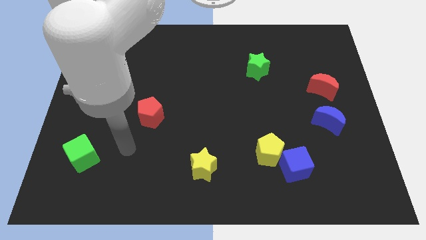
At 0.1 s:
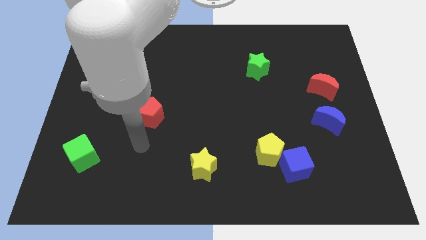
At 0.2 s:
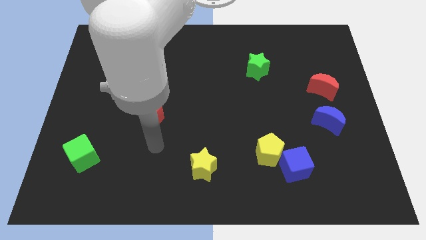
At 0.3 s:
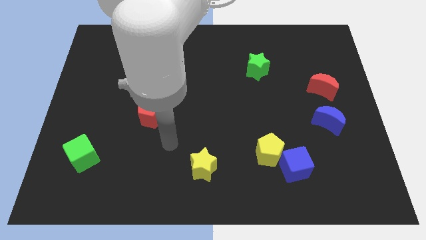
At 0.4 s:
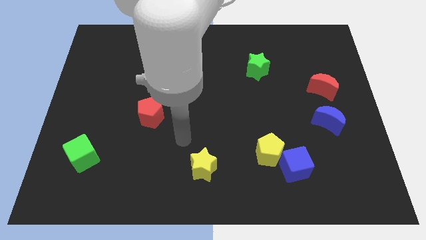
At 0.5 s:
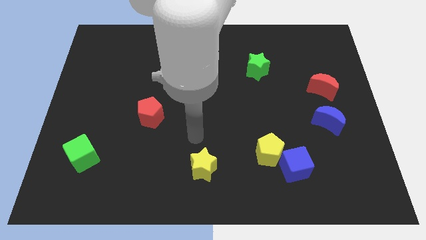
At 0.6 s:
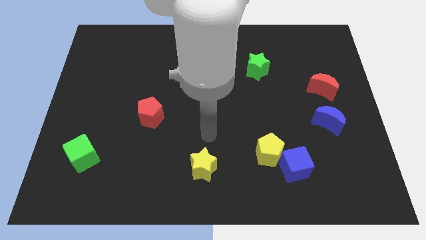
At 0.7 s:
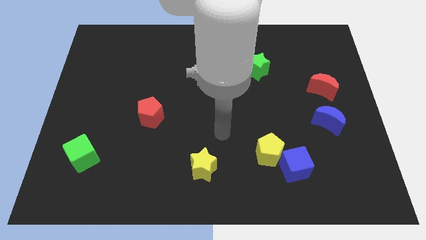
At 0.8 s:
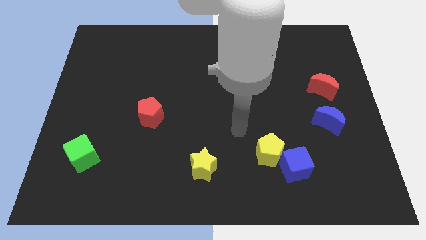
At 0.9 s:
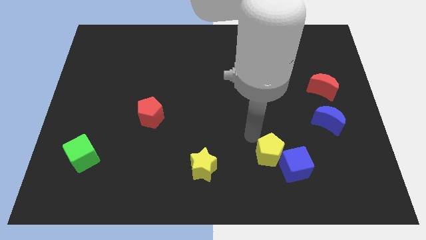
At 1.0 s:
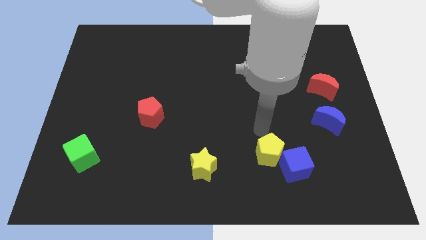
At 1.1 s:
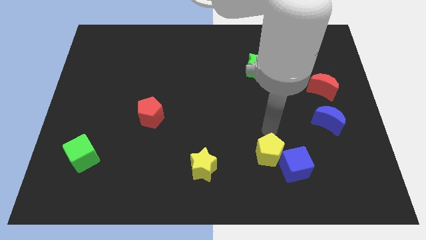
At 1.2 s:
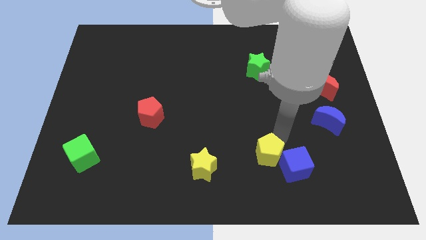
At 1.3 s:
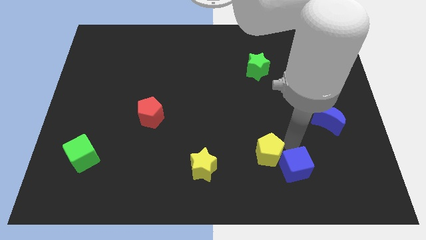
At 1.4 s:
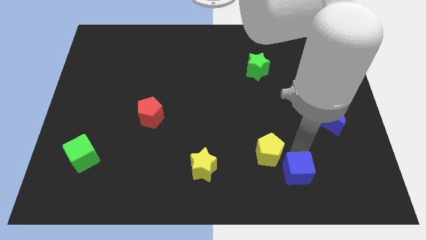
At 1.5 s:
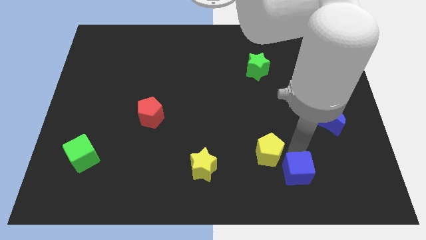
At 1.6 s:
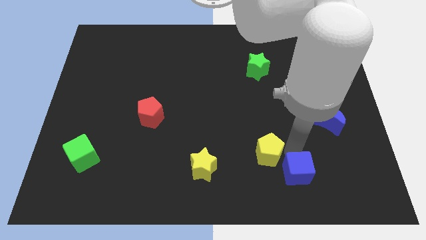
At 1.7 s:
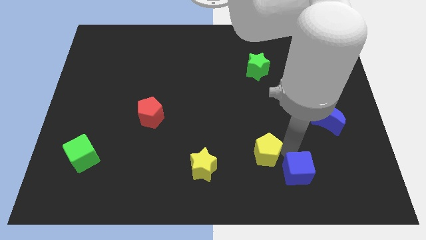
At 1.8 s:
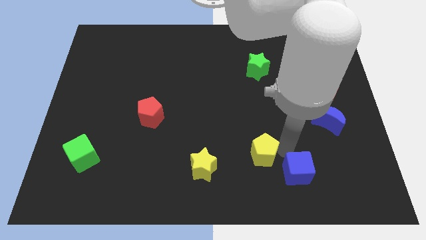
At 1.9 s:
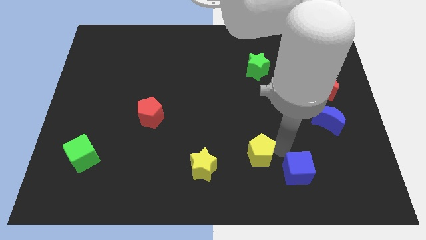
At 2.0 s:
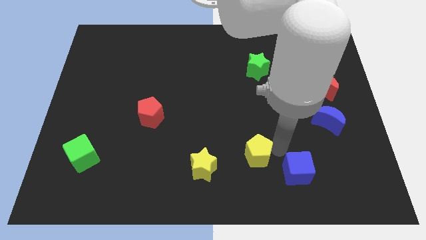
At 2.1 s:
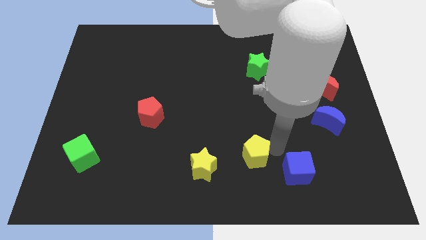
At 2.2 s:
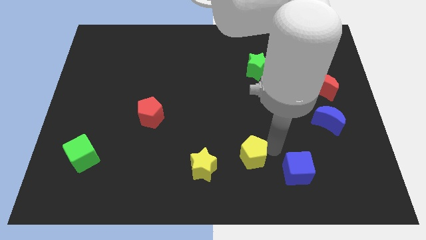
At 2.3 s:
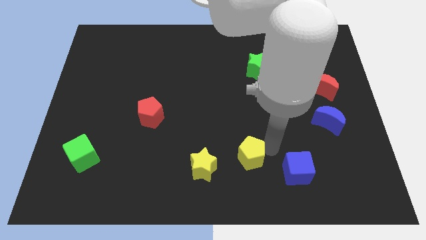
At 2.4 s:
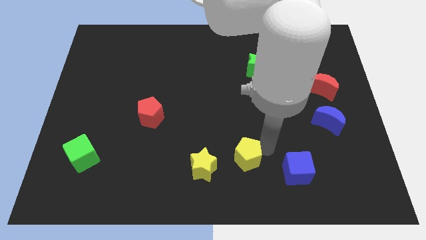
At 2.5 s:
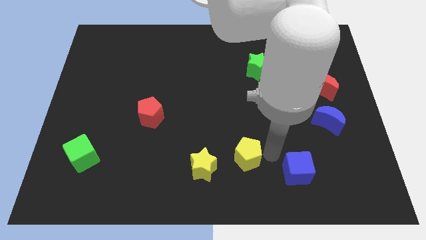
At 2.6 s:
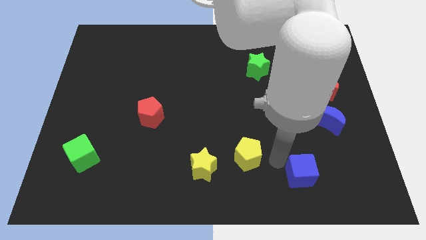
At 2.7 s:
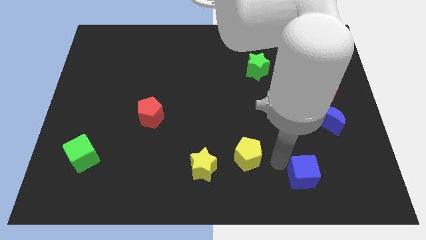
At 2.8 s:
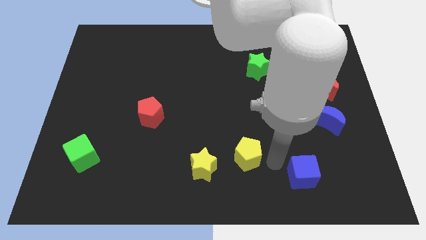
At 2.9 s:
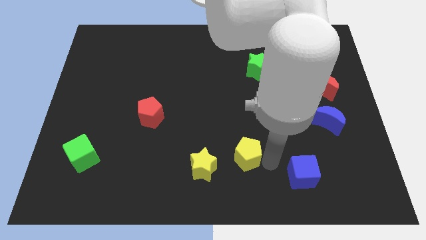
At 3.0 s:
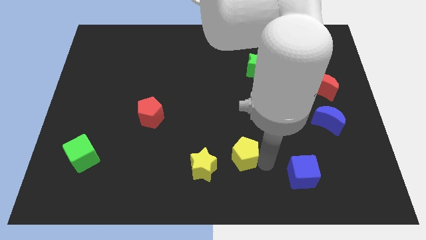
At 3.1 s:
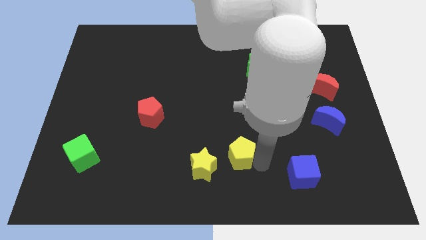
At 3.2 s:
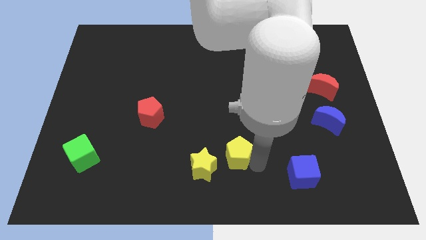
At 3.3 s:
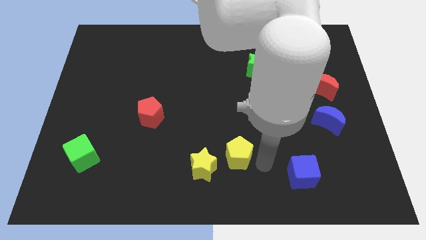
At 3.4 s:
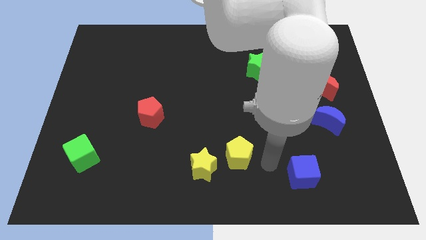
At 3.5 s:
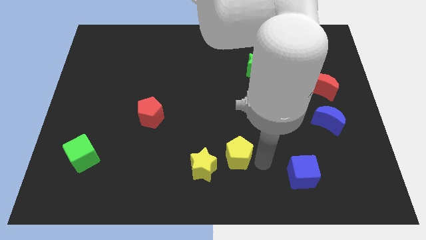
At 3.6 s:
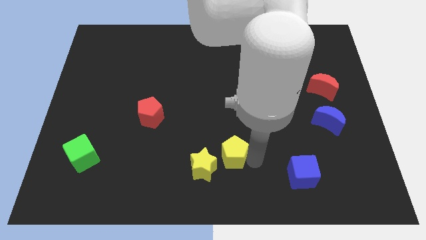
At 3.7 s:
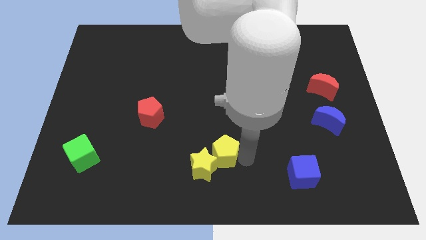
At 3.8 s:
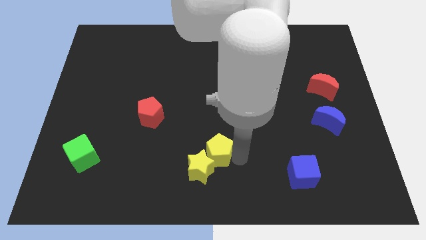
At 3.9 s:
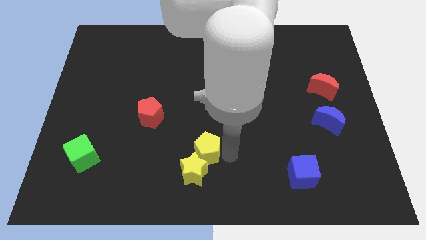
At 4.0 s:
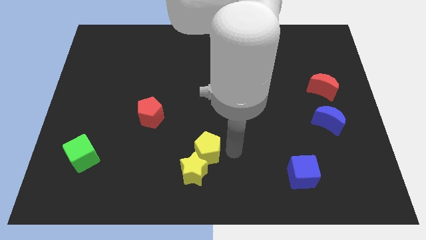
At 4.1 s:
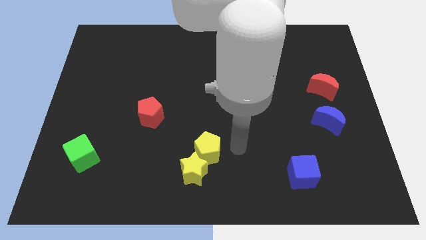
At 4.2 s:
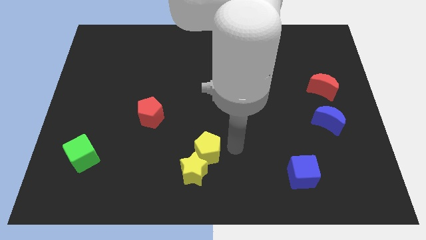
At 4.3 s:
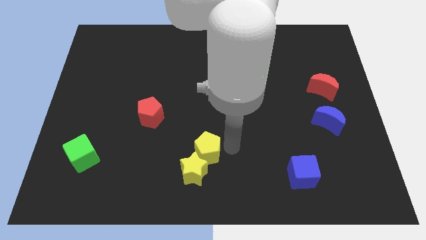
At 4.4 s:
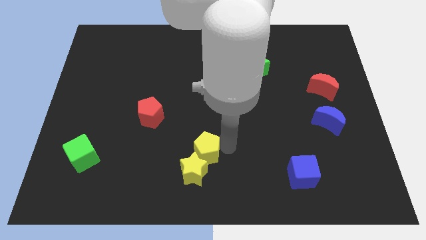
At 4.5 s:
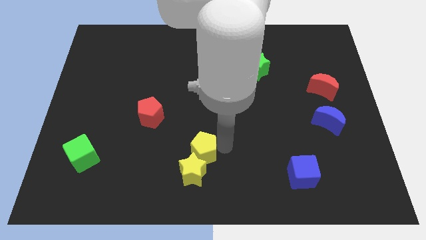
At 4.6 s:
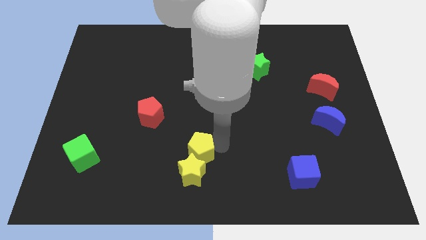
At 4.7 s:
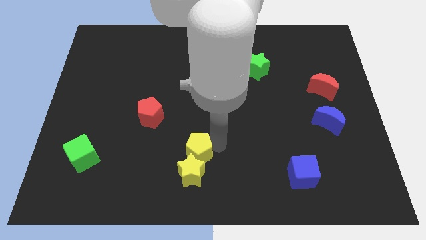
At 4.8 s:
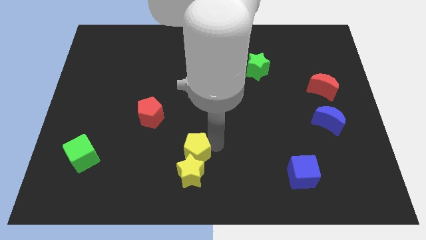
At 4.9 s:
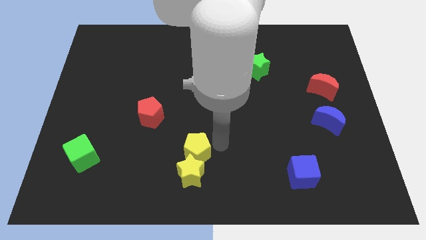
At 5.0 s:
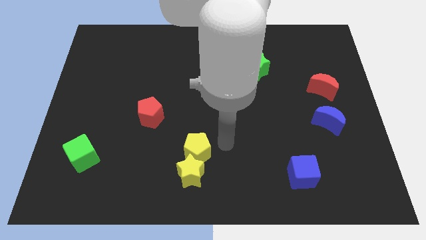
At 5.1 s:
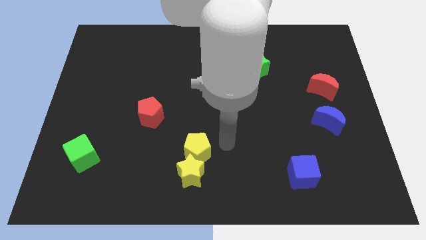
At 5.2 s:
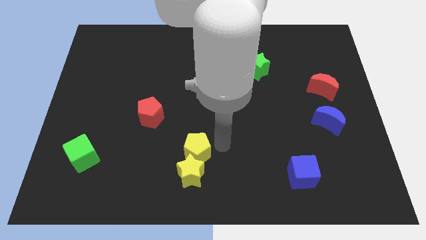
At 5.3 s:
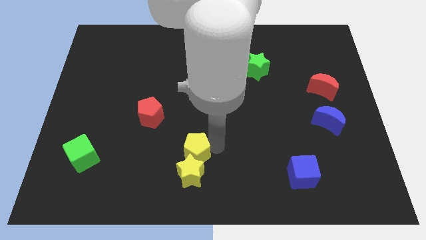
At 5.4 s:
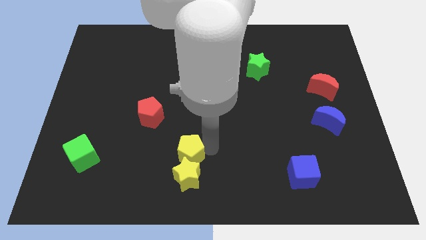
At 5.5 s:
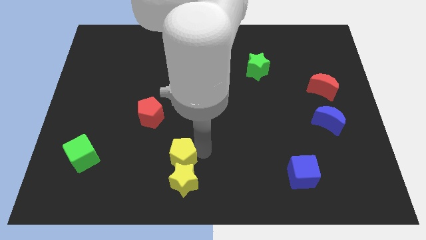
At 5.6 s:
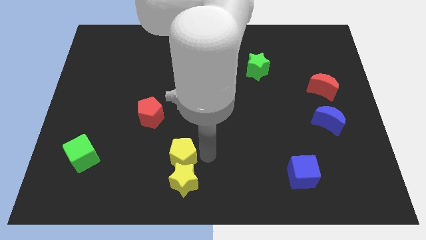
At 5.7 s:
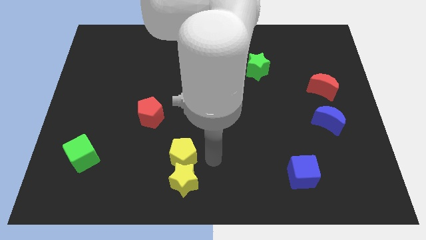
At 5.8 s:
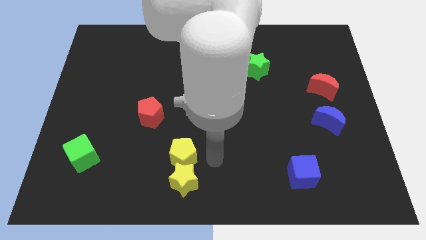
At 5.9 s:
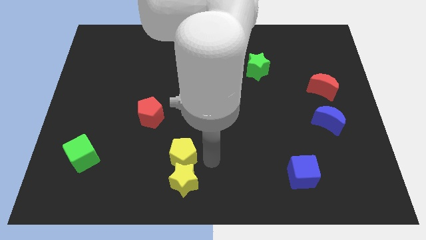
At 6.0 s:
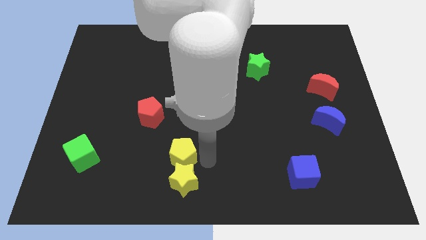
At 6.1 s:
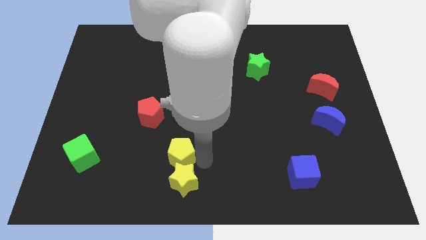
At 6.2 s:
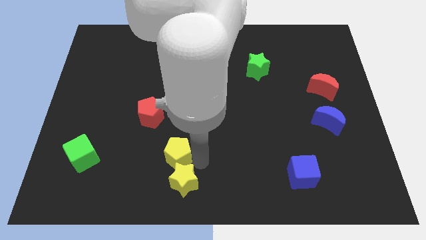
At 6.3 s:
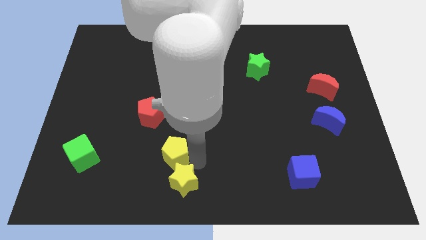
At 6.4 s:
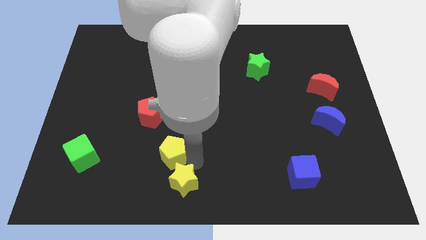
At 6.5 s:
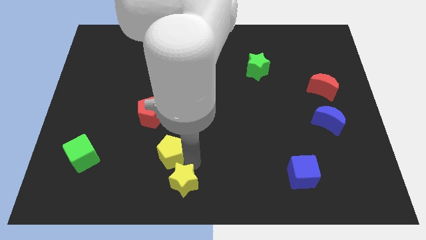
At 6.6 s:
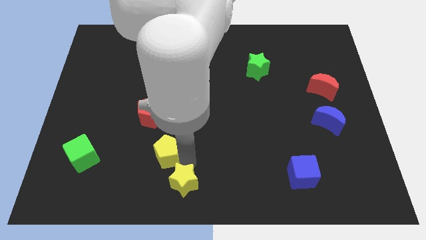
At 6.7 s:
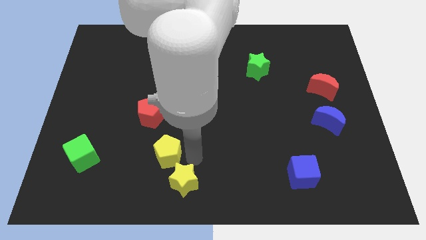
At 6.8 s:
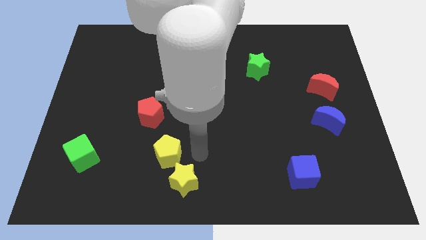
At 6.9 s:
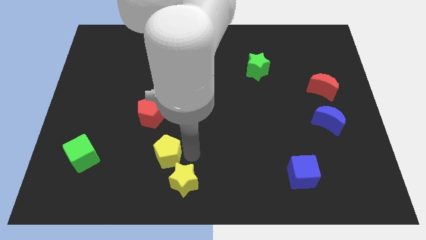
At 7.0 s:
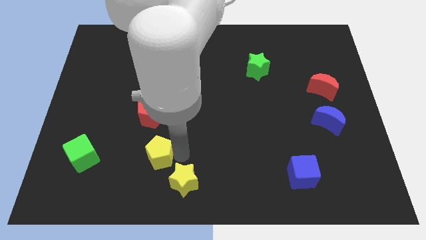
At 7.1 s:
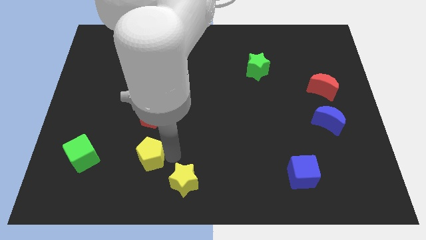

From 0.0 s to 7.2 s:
move the yellow pentagon right of the green cube

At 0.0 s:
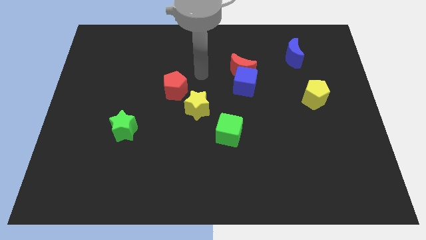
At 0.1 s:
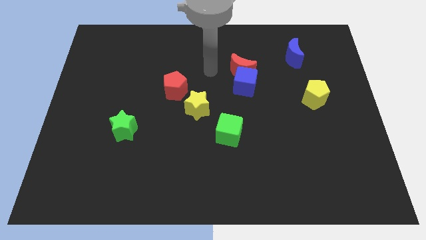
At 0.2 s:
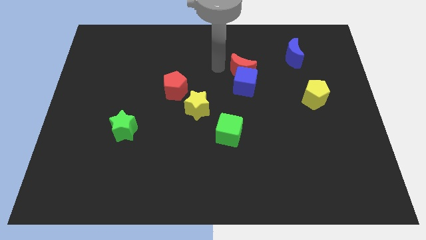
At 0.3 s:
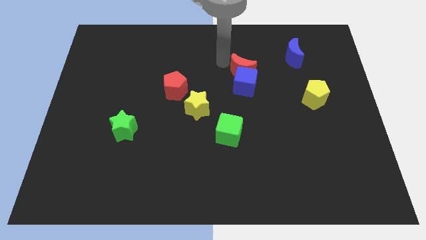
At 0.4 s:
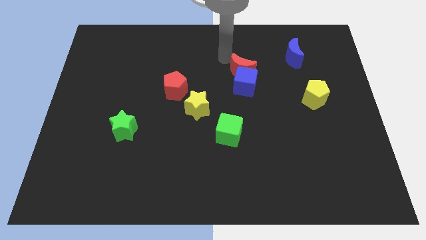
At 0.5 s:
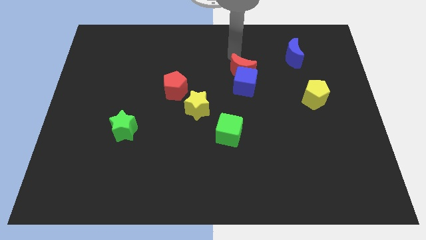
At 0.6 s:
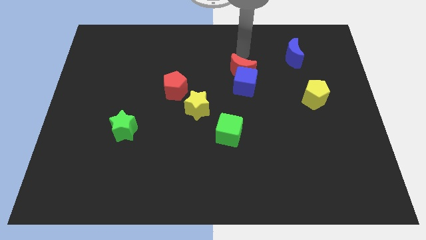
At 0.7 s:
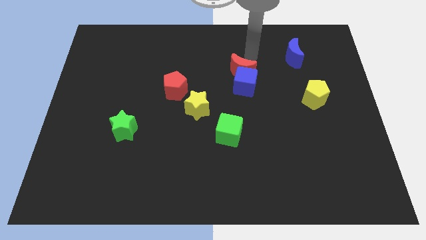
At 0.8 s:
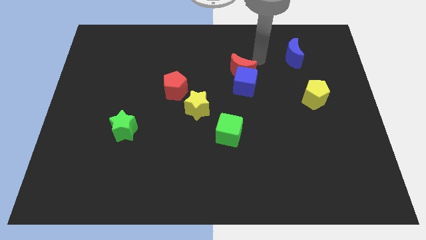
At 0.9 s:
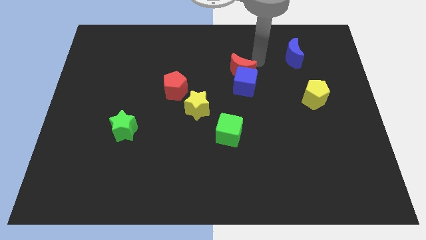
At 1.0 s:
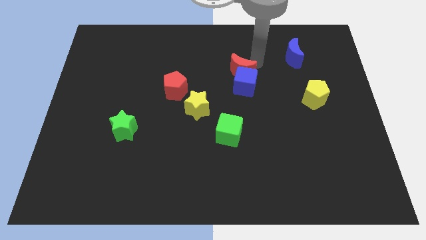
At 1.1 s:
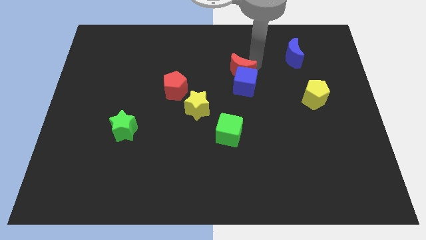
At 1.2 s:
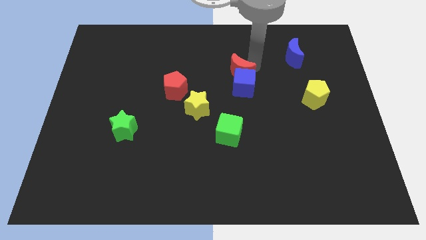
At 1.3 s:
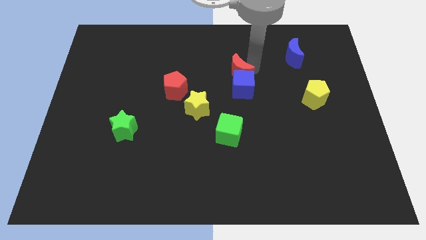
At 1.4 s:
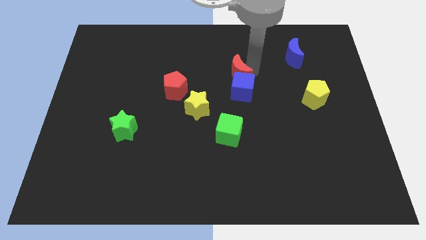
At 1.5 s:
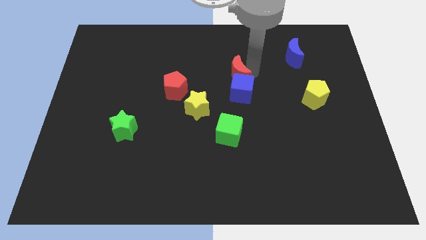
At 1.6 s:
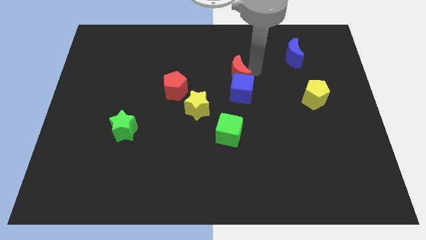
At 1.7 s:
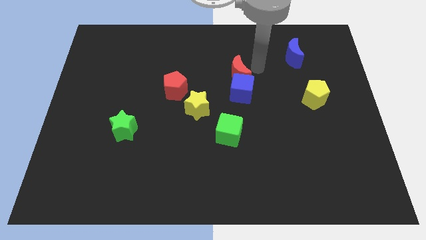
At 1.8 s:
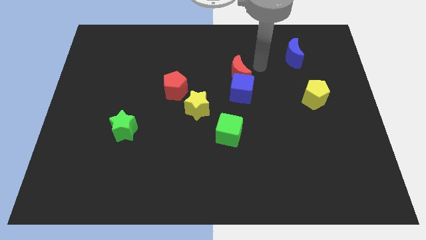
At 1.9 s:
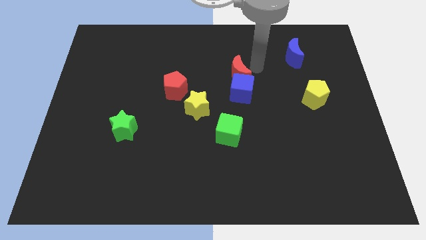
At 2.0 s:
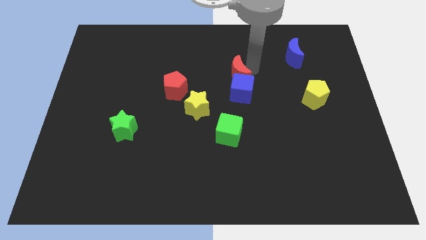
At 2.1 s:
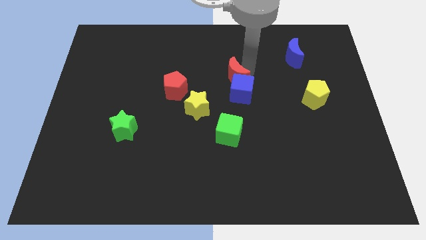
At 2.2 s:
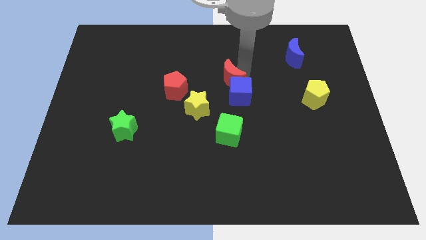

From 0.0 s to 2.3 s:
move the red moon to the top right side of the yellow star
